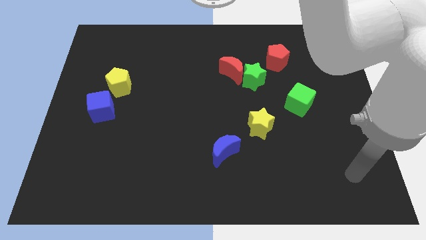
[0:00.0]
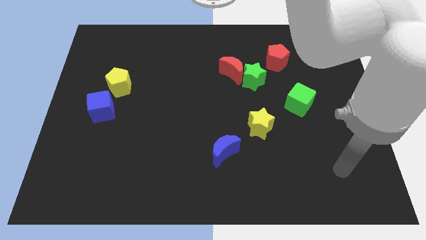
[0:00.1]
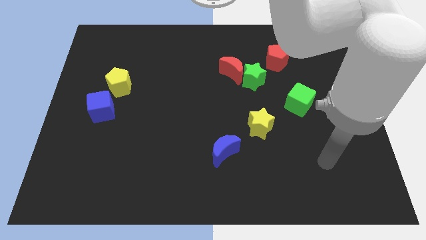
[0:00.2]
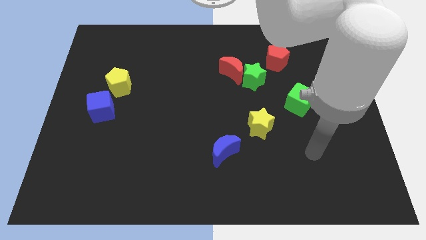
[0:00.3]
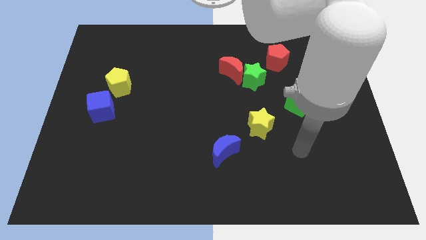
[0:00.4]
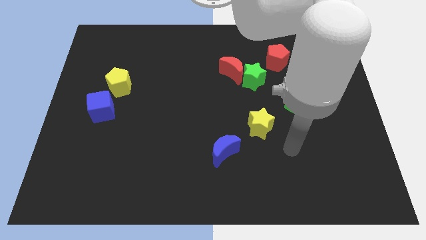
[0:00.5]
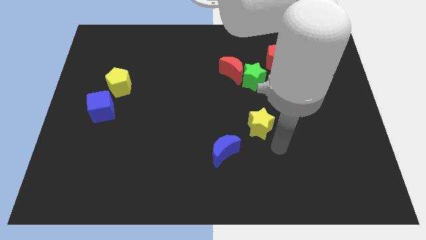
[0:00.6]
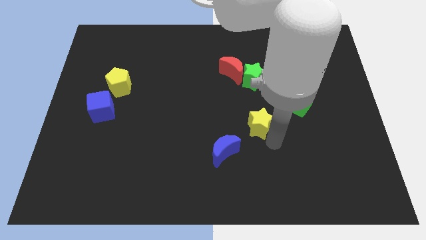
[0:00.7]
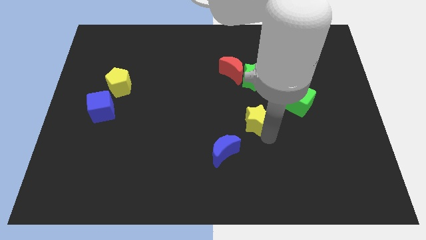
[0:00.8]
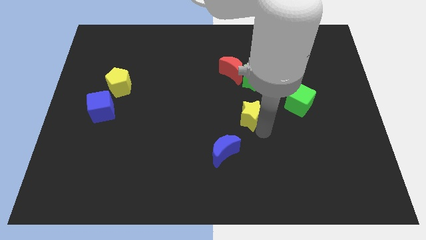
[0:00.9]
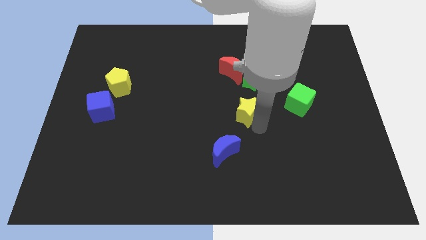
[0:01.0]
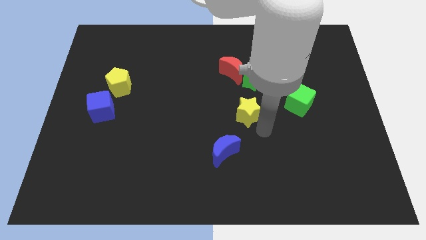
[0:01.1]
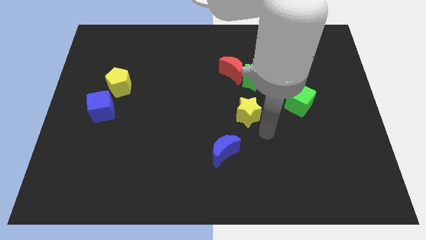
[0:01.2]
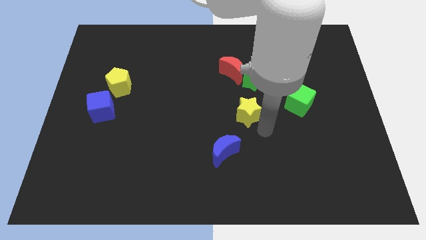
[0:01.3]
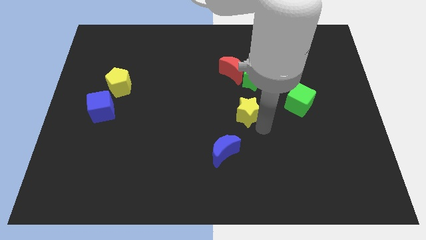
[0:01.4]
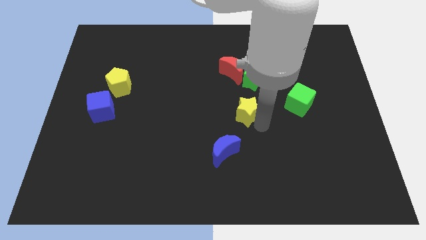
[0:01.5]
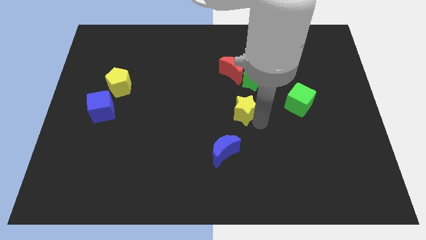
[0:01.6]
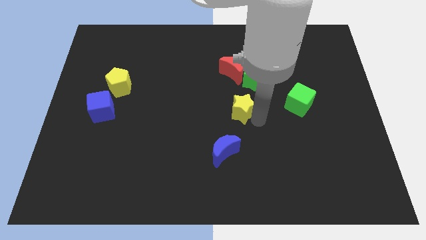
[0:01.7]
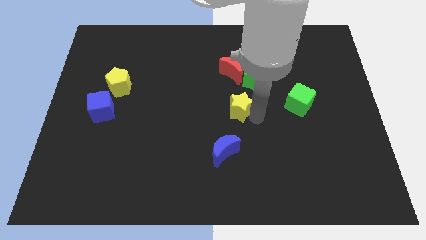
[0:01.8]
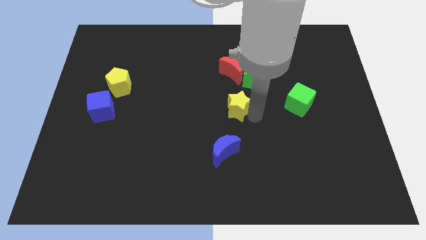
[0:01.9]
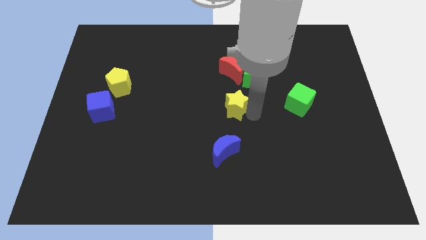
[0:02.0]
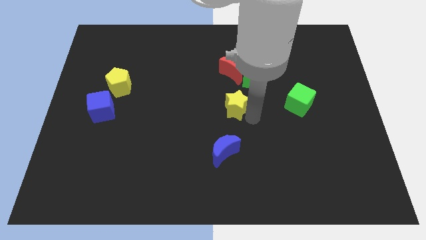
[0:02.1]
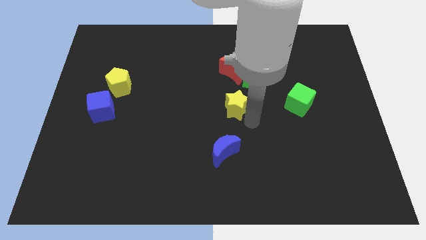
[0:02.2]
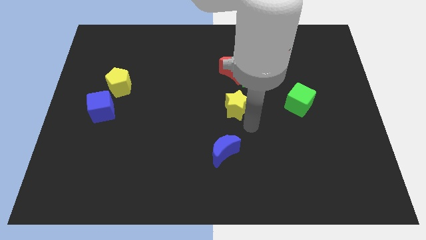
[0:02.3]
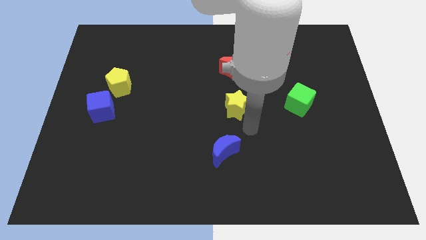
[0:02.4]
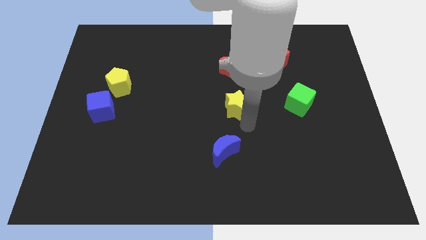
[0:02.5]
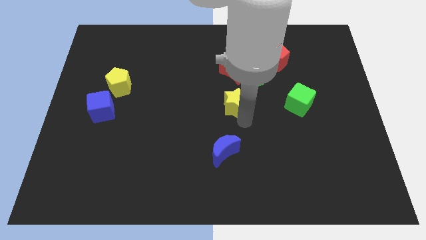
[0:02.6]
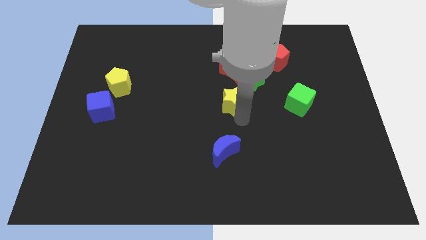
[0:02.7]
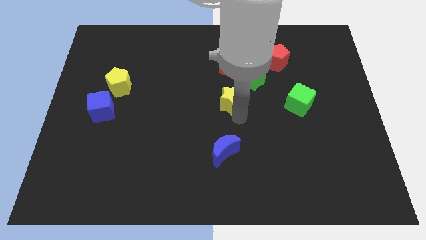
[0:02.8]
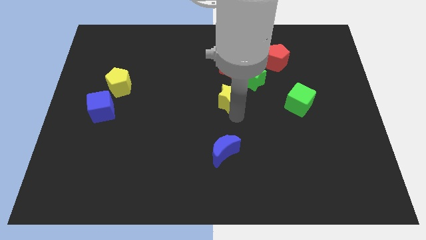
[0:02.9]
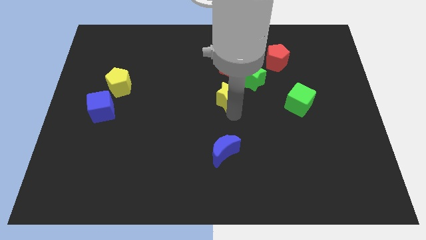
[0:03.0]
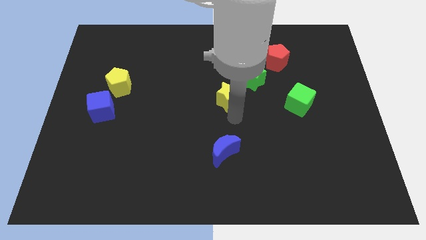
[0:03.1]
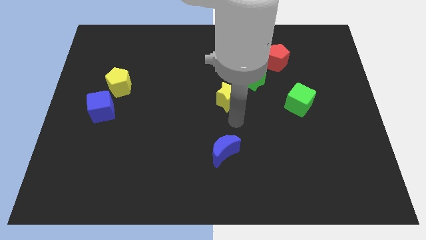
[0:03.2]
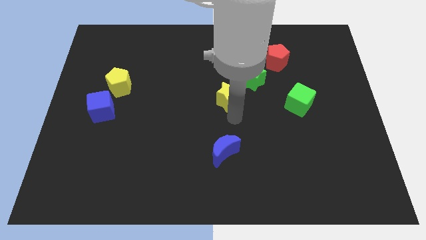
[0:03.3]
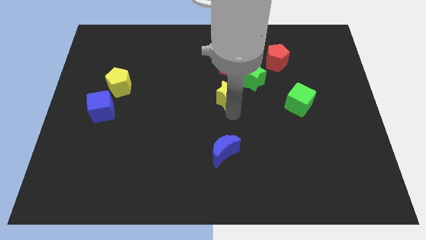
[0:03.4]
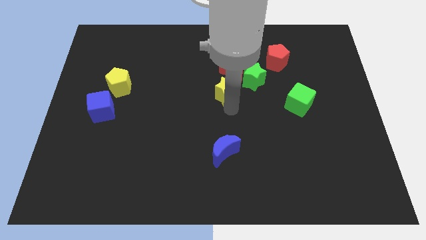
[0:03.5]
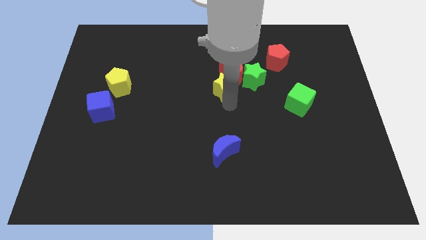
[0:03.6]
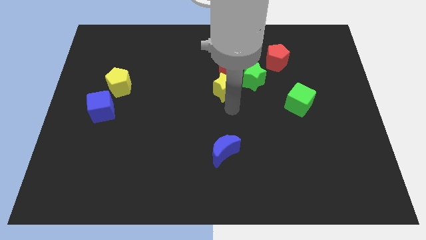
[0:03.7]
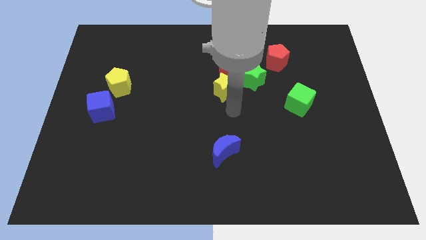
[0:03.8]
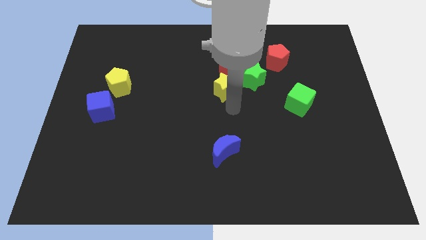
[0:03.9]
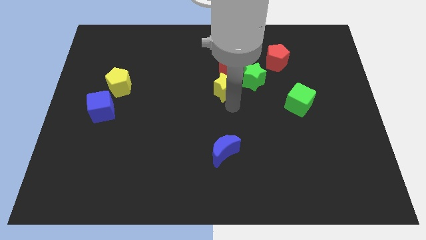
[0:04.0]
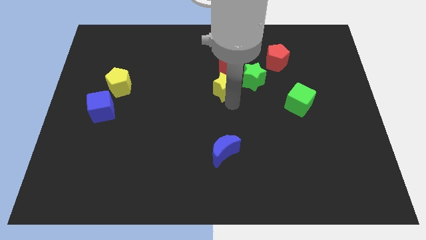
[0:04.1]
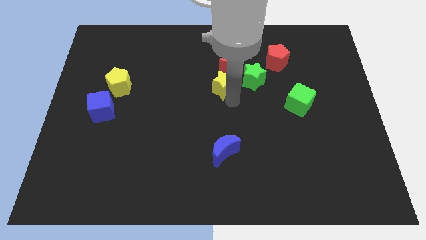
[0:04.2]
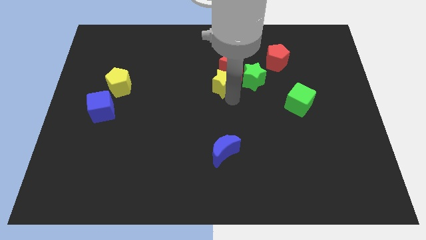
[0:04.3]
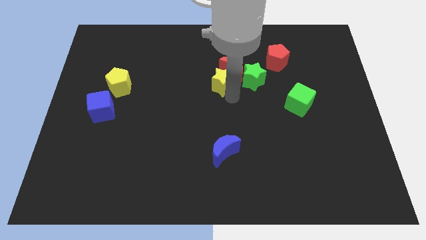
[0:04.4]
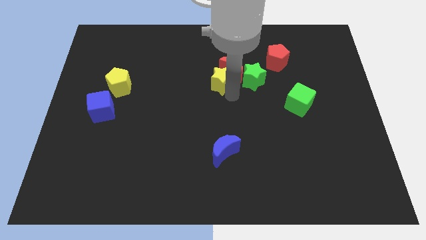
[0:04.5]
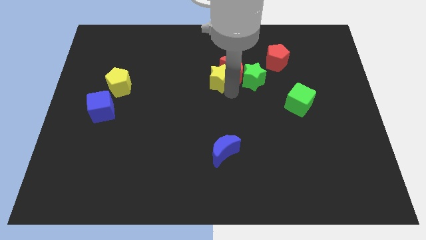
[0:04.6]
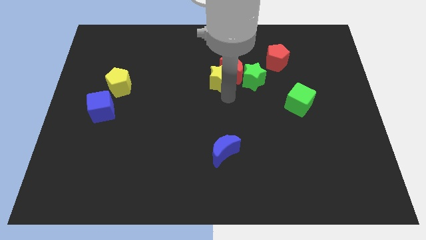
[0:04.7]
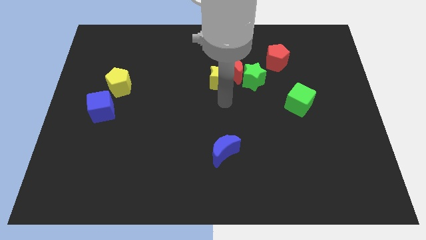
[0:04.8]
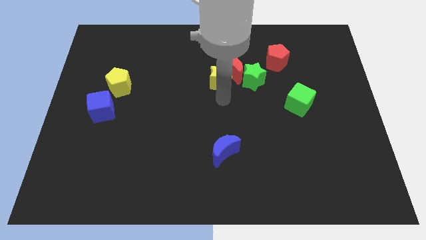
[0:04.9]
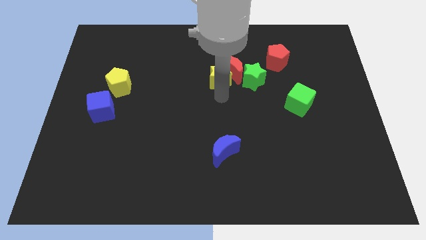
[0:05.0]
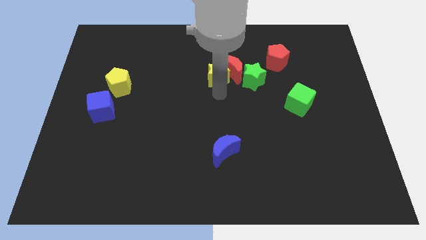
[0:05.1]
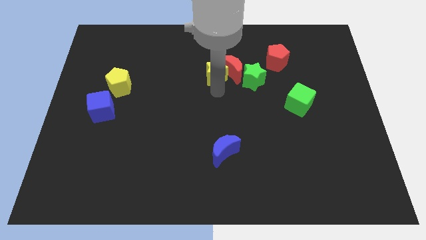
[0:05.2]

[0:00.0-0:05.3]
move the yellow star diagonally up and to the left of the red moon

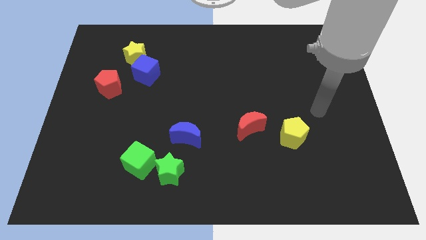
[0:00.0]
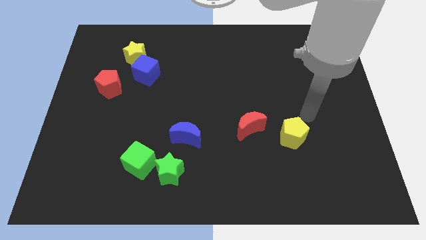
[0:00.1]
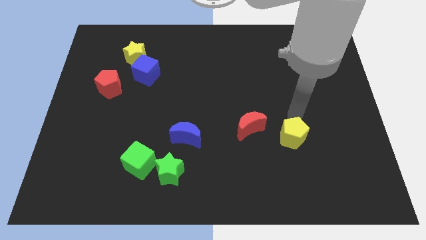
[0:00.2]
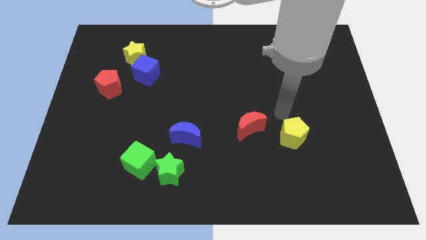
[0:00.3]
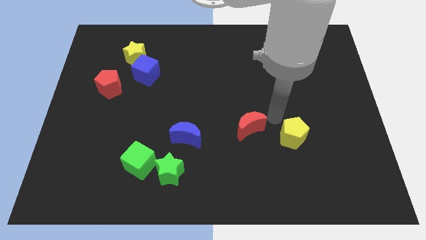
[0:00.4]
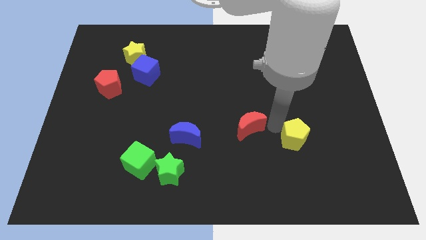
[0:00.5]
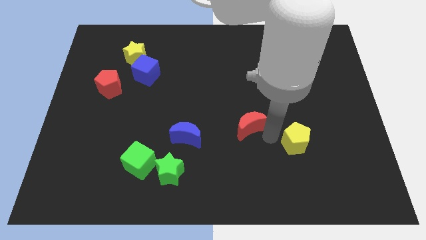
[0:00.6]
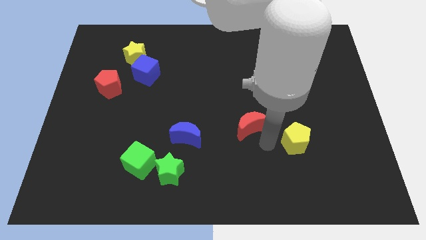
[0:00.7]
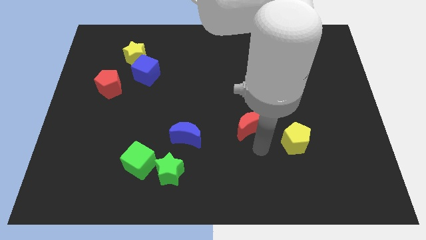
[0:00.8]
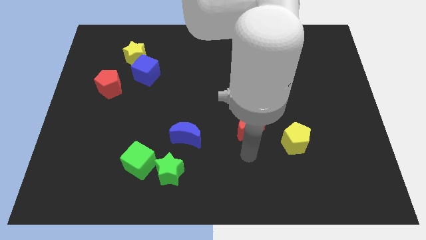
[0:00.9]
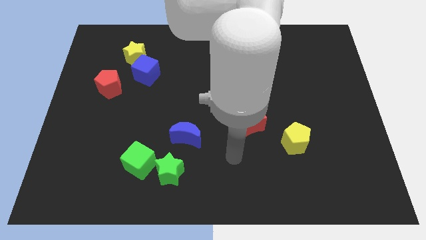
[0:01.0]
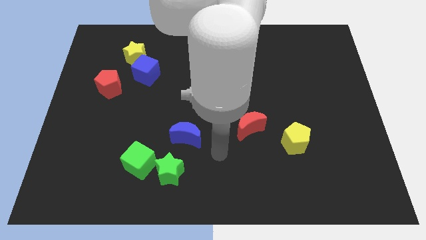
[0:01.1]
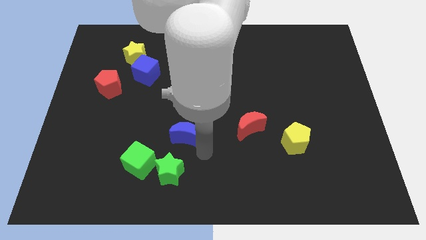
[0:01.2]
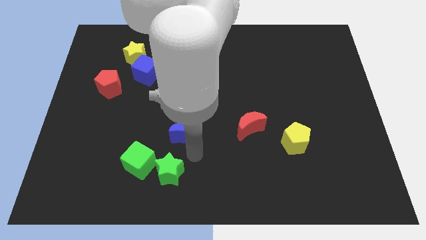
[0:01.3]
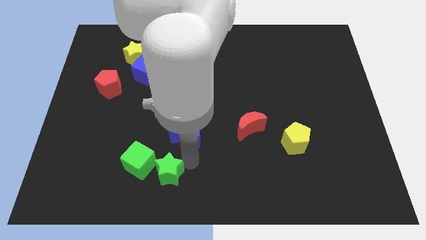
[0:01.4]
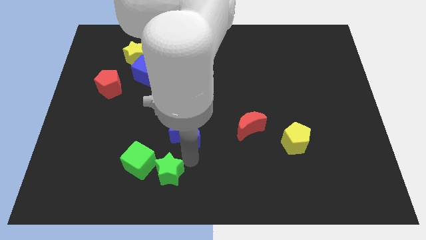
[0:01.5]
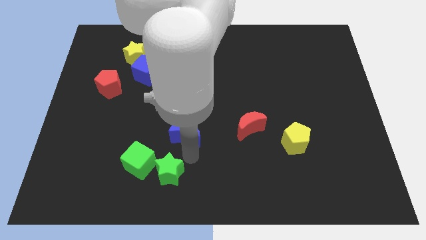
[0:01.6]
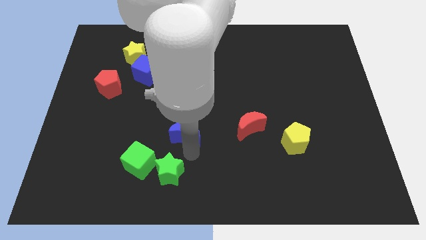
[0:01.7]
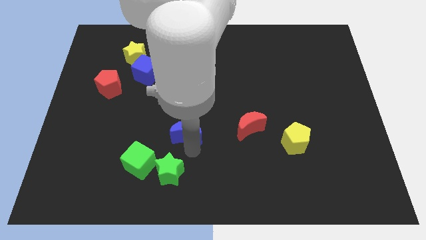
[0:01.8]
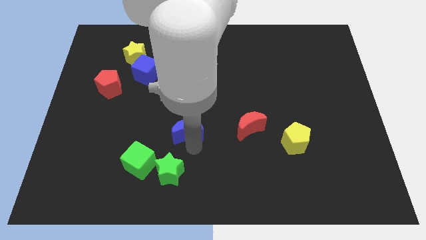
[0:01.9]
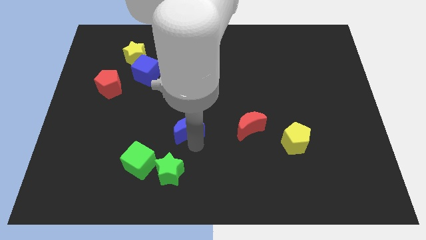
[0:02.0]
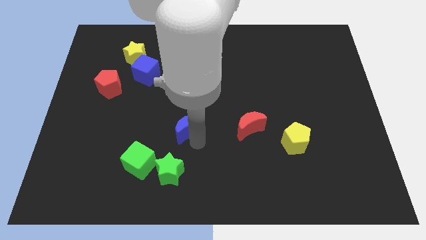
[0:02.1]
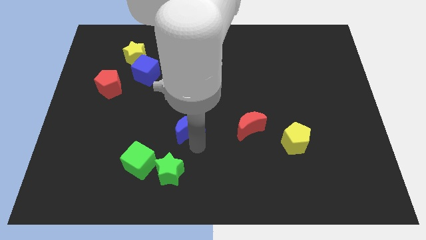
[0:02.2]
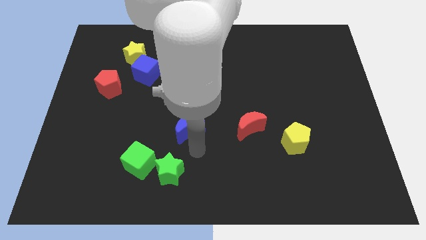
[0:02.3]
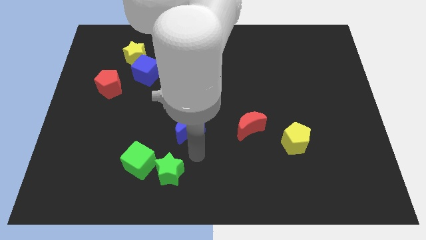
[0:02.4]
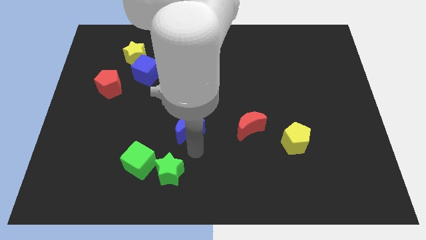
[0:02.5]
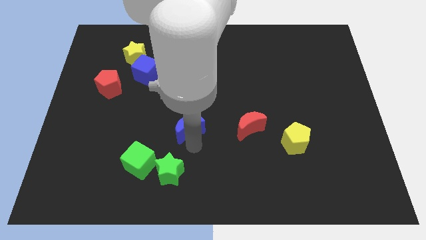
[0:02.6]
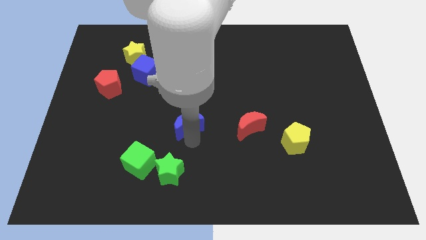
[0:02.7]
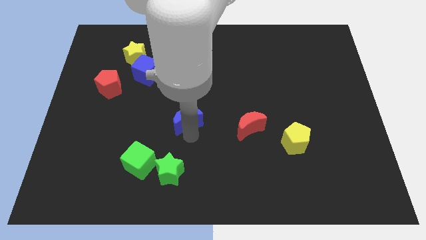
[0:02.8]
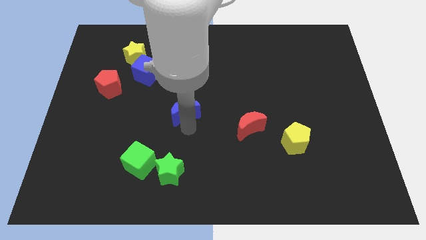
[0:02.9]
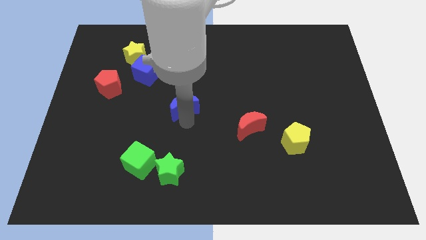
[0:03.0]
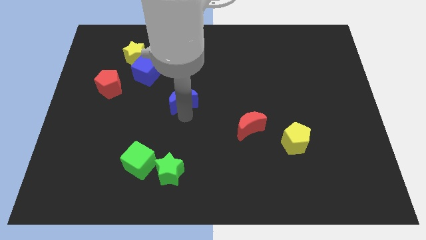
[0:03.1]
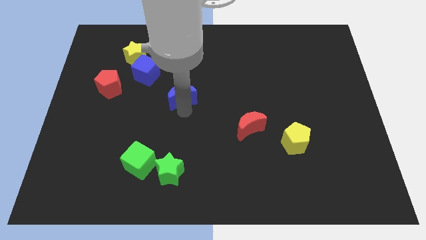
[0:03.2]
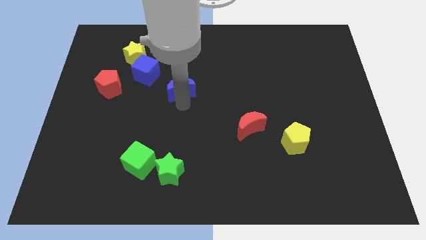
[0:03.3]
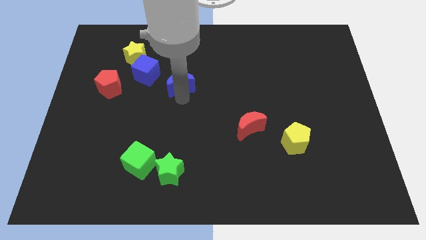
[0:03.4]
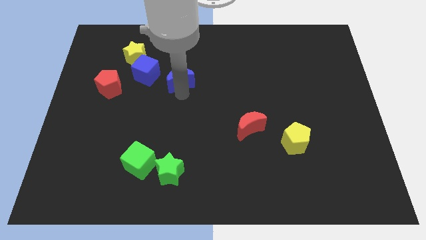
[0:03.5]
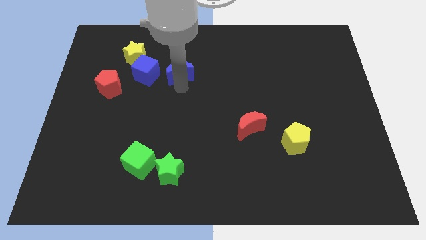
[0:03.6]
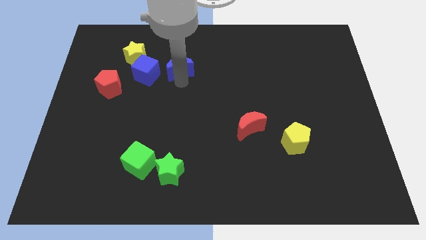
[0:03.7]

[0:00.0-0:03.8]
move the blue moon to the right side of the yellow star
